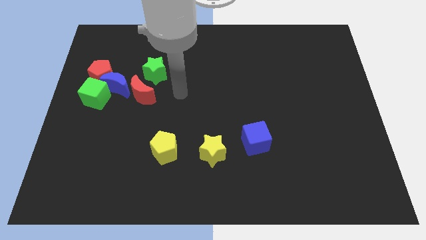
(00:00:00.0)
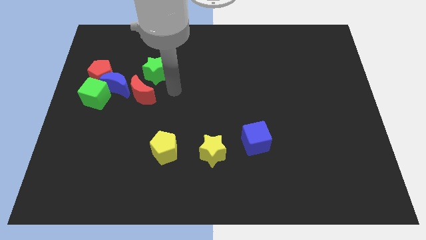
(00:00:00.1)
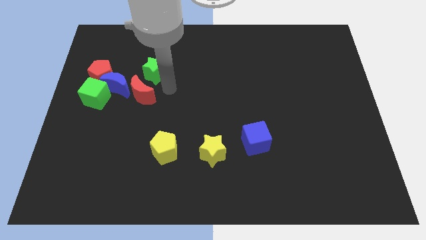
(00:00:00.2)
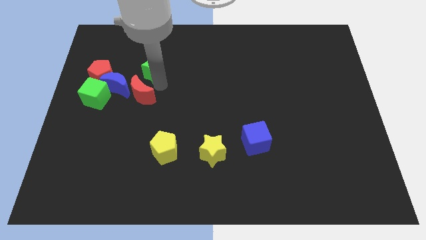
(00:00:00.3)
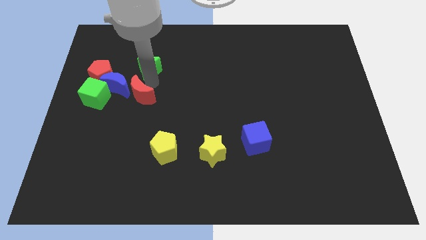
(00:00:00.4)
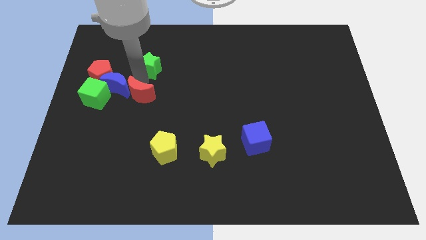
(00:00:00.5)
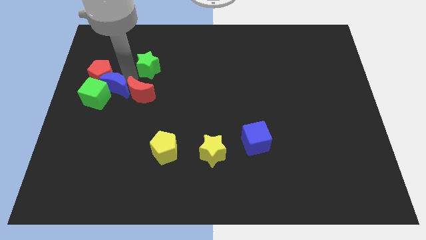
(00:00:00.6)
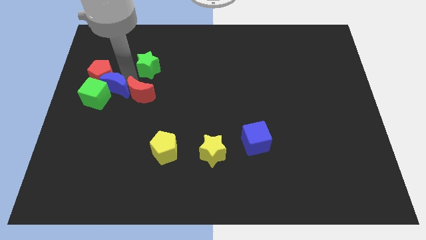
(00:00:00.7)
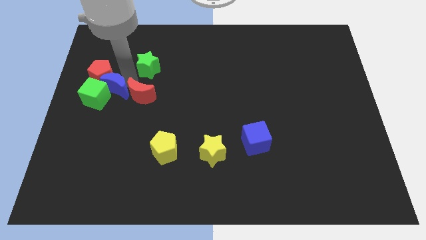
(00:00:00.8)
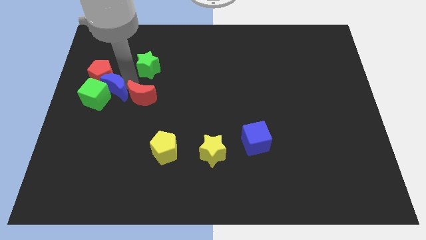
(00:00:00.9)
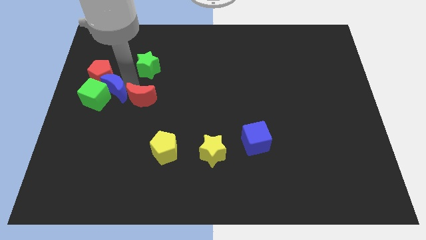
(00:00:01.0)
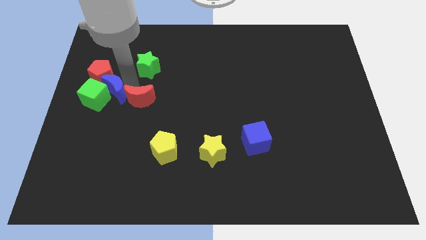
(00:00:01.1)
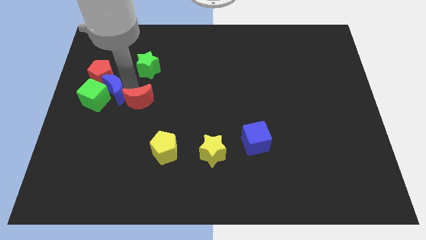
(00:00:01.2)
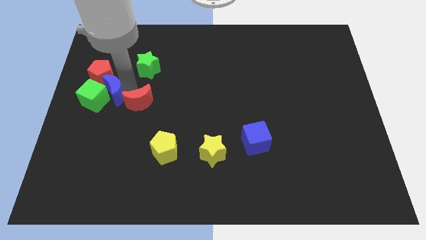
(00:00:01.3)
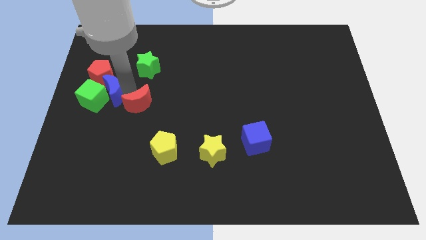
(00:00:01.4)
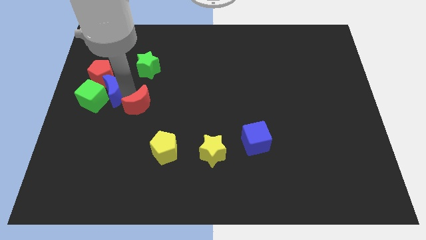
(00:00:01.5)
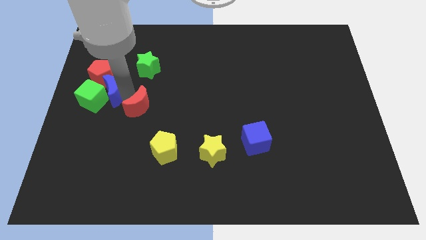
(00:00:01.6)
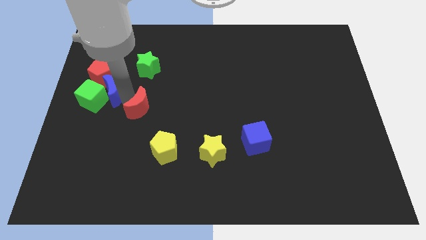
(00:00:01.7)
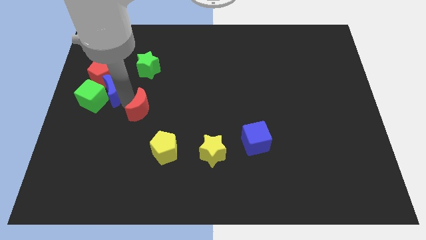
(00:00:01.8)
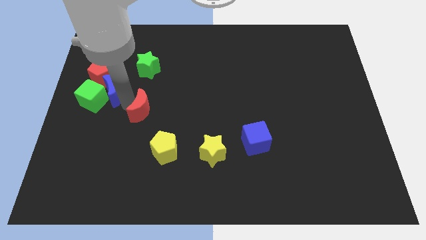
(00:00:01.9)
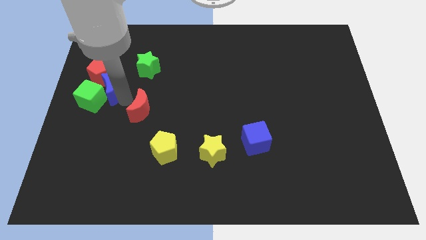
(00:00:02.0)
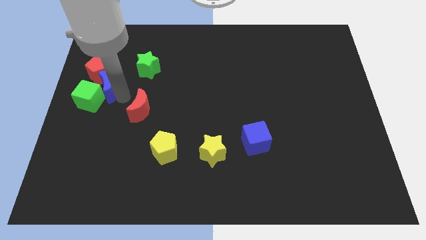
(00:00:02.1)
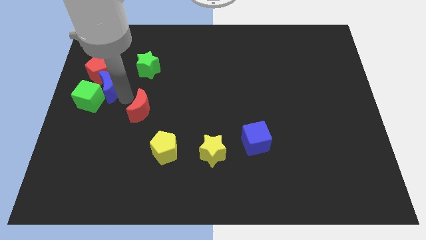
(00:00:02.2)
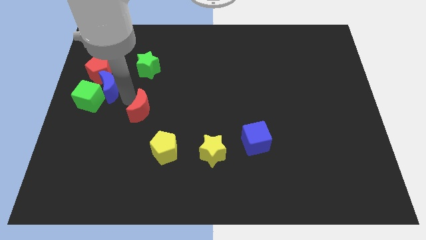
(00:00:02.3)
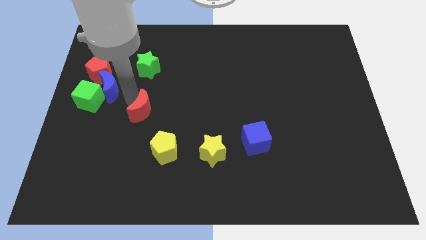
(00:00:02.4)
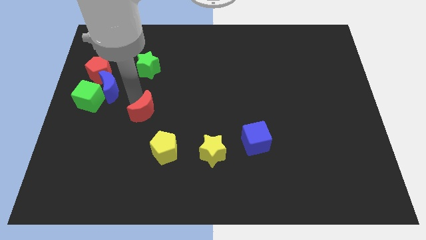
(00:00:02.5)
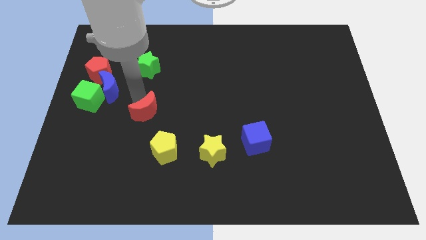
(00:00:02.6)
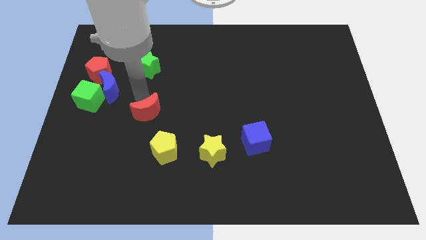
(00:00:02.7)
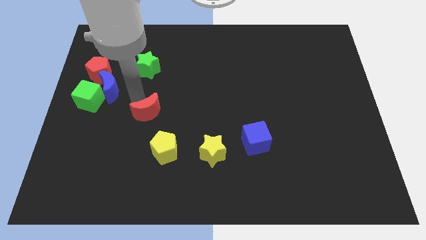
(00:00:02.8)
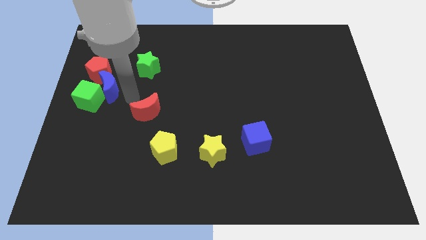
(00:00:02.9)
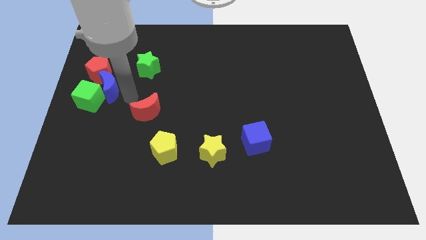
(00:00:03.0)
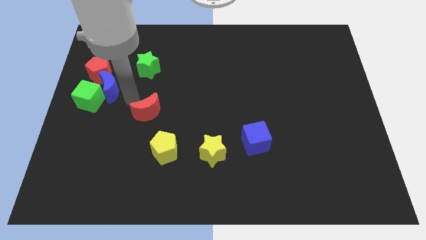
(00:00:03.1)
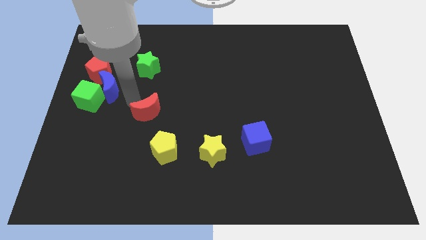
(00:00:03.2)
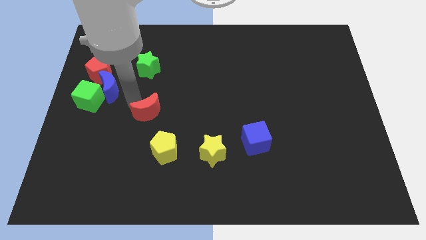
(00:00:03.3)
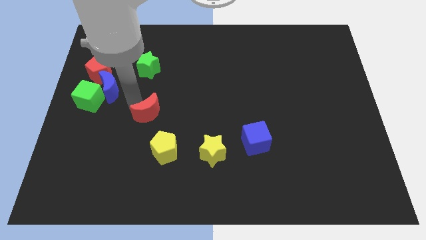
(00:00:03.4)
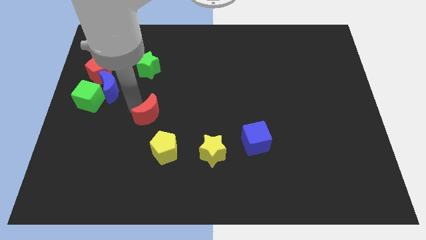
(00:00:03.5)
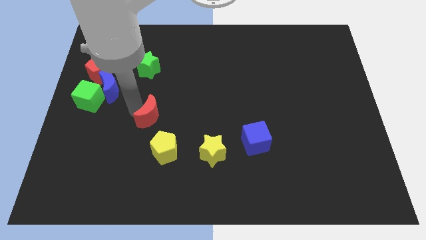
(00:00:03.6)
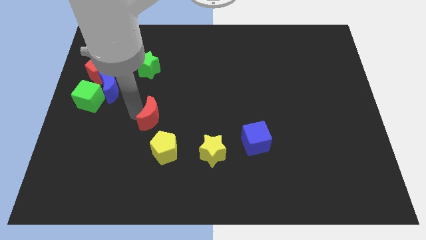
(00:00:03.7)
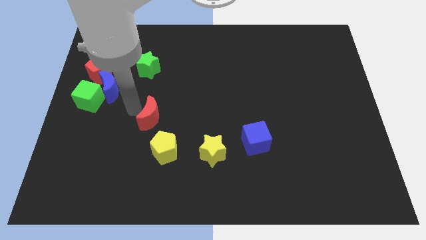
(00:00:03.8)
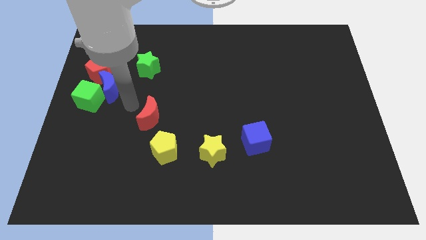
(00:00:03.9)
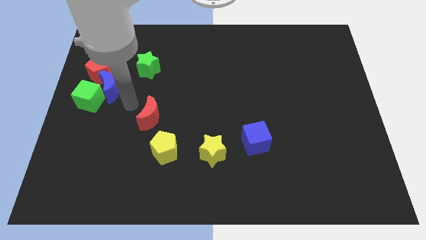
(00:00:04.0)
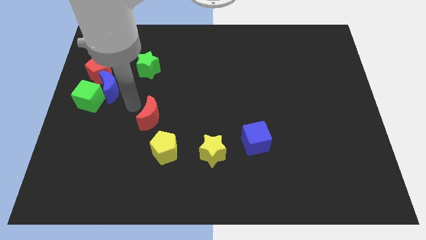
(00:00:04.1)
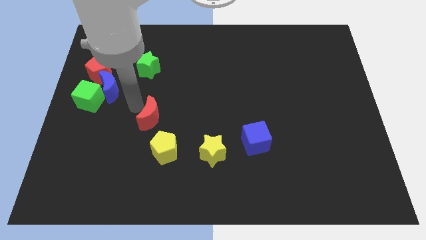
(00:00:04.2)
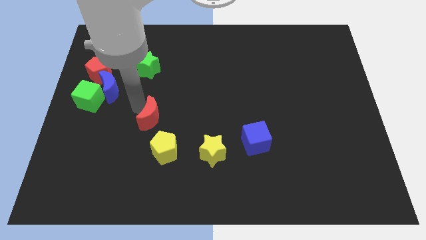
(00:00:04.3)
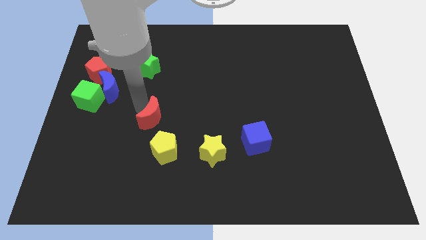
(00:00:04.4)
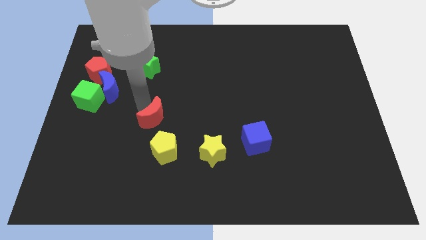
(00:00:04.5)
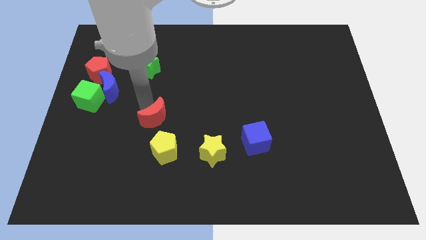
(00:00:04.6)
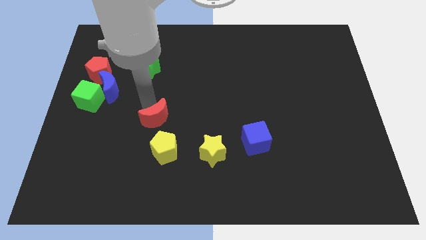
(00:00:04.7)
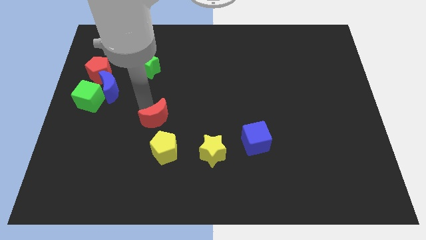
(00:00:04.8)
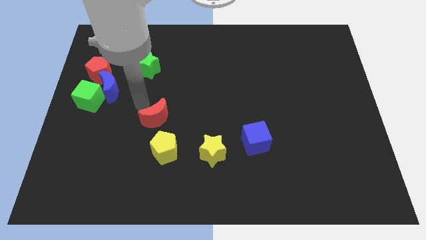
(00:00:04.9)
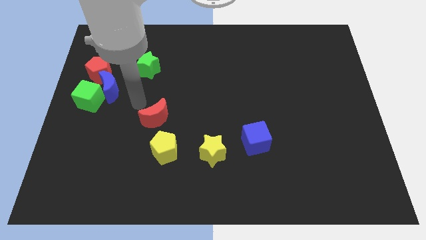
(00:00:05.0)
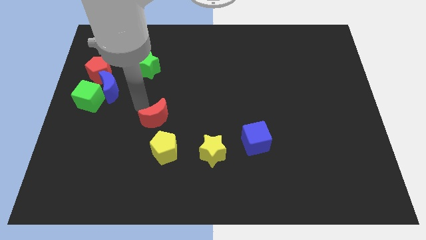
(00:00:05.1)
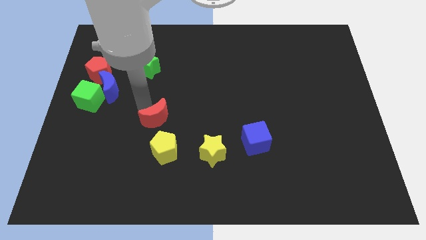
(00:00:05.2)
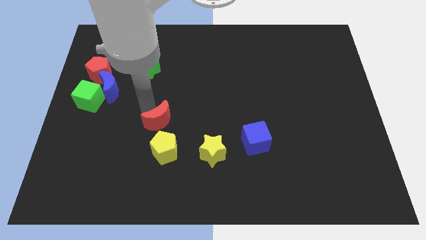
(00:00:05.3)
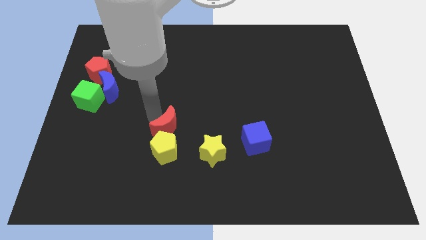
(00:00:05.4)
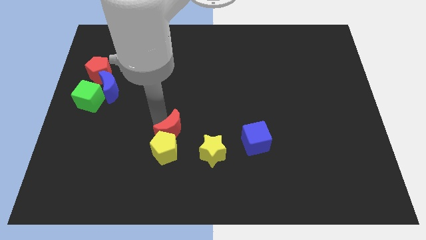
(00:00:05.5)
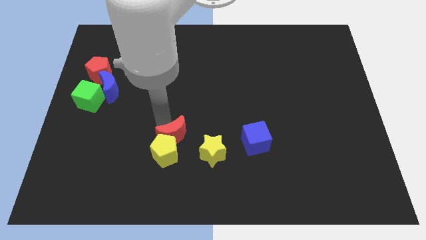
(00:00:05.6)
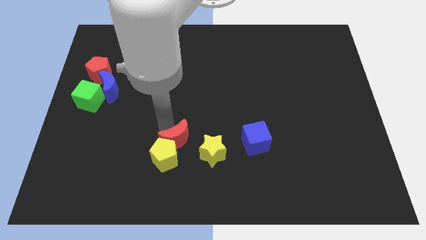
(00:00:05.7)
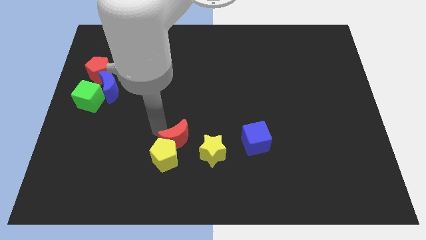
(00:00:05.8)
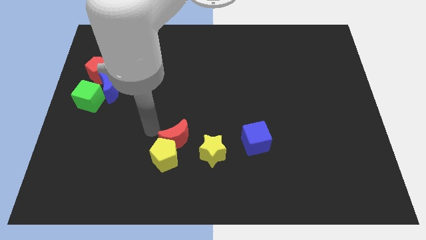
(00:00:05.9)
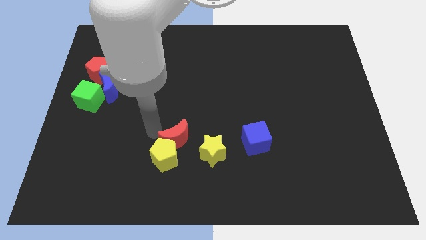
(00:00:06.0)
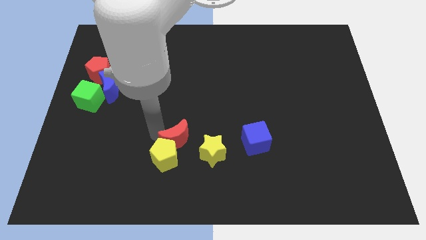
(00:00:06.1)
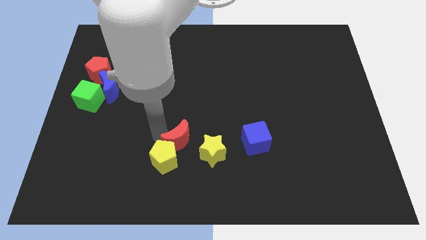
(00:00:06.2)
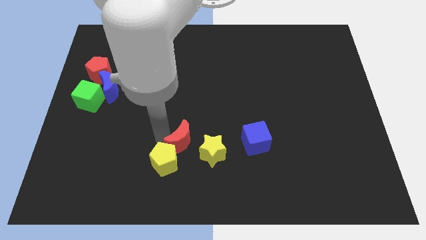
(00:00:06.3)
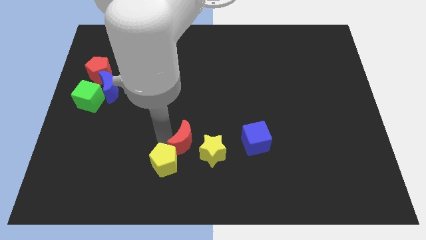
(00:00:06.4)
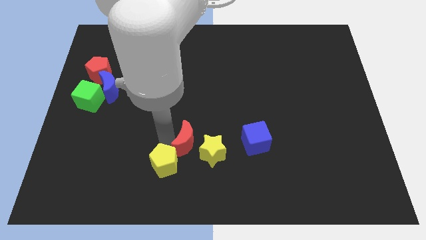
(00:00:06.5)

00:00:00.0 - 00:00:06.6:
move the red moon close to the yellow star
